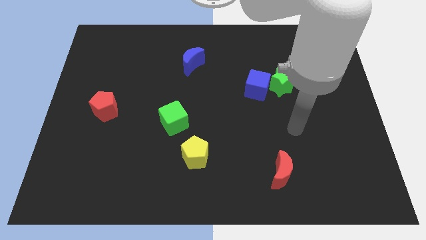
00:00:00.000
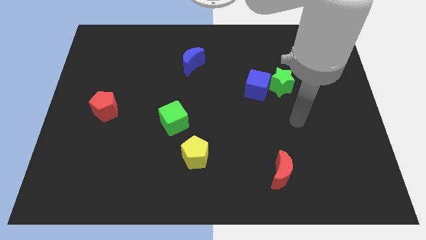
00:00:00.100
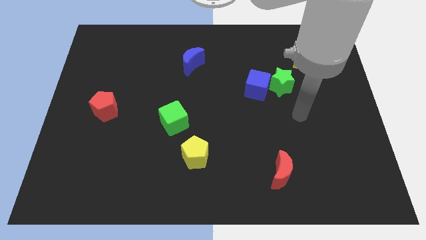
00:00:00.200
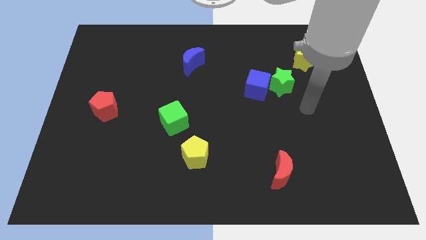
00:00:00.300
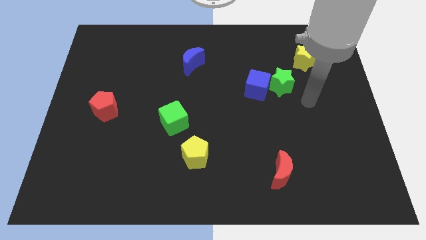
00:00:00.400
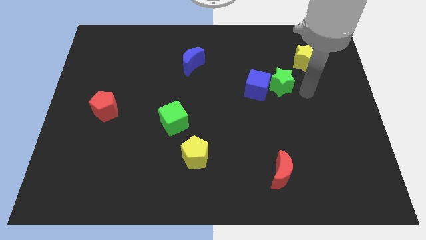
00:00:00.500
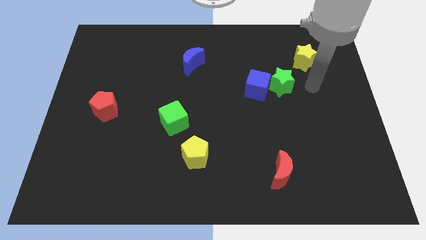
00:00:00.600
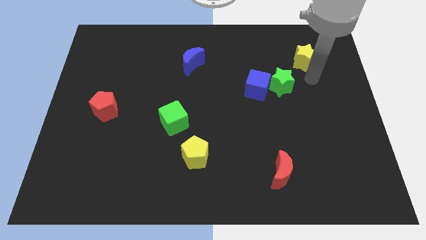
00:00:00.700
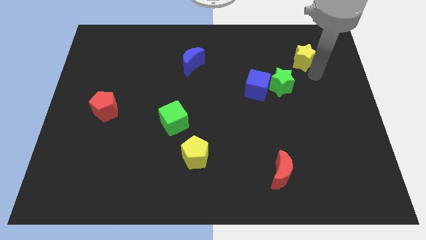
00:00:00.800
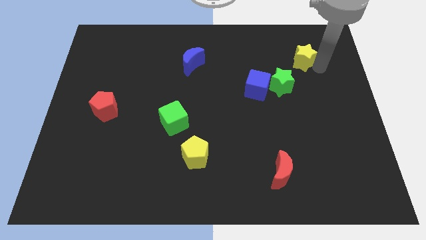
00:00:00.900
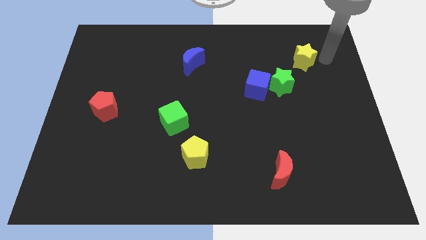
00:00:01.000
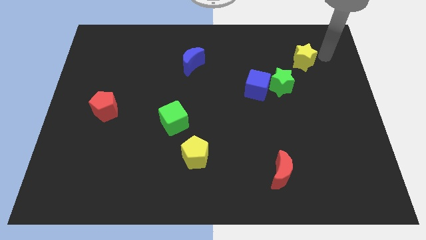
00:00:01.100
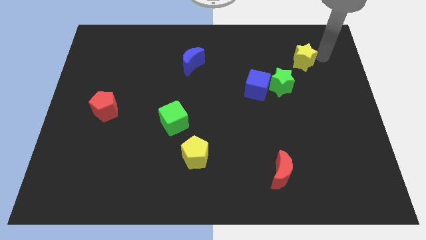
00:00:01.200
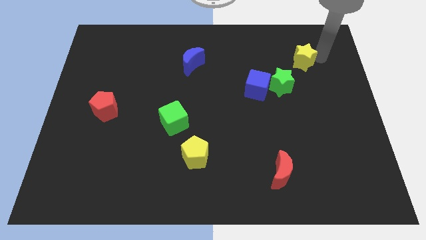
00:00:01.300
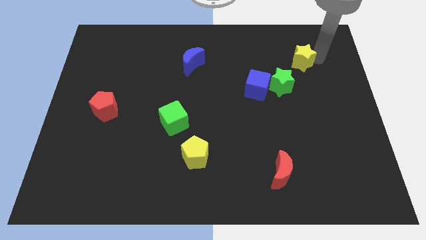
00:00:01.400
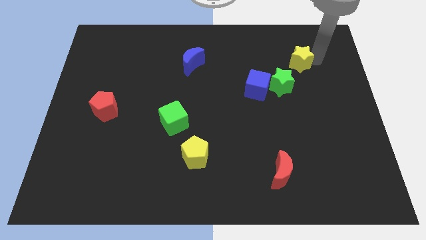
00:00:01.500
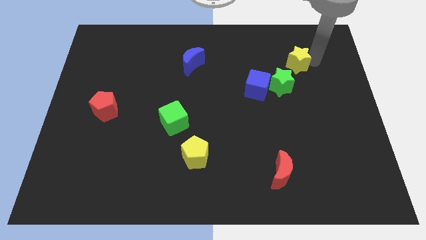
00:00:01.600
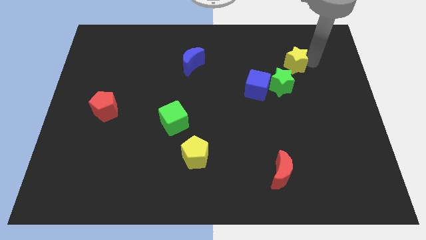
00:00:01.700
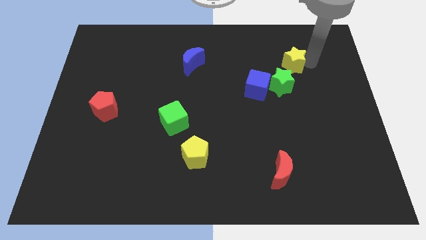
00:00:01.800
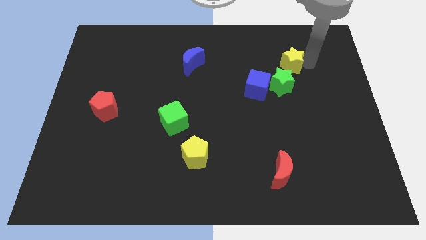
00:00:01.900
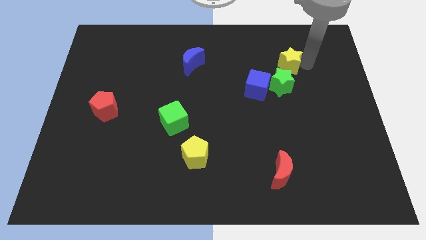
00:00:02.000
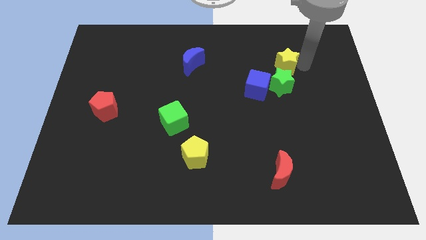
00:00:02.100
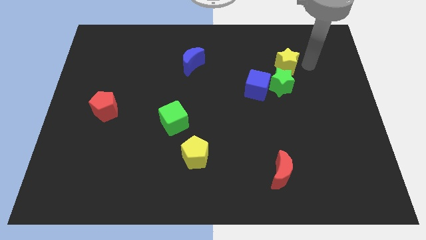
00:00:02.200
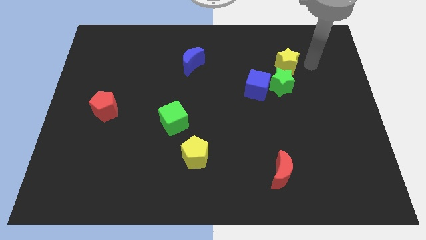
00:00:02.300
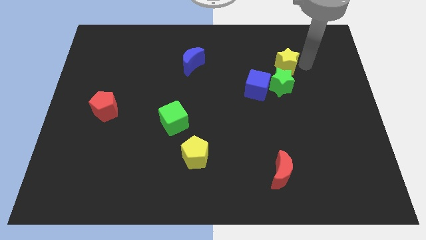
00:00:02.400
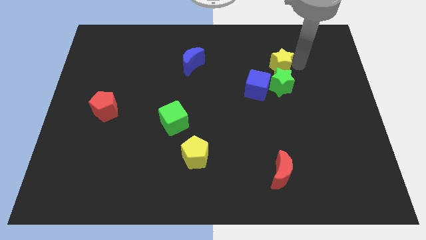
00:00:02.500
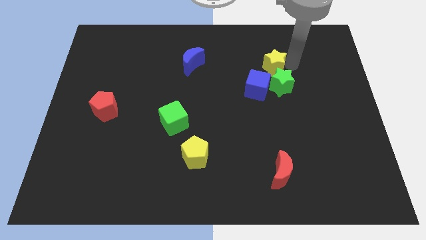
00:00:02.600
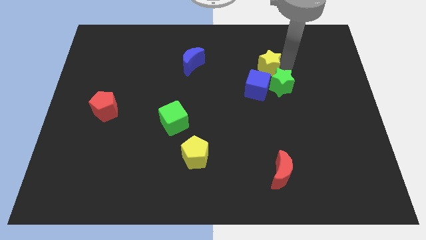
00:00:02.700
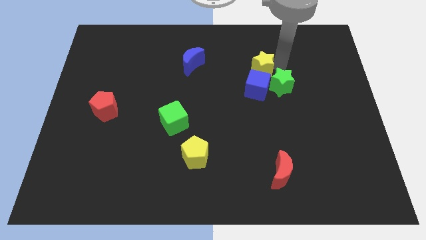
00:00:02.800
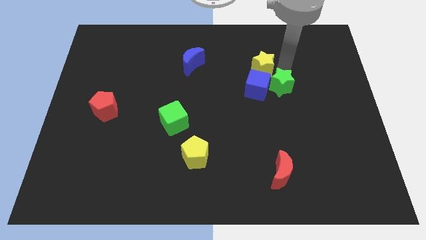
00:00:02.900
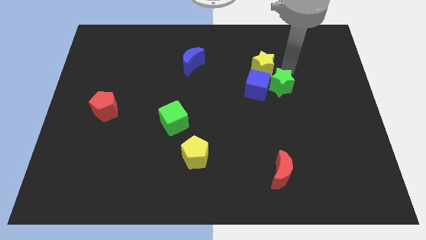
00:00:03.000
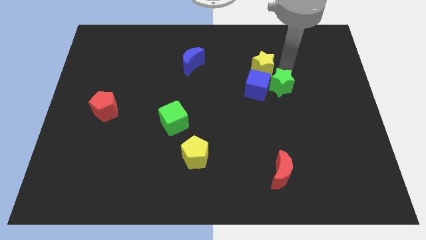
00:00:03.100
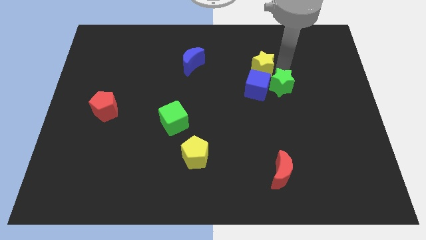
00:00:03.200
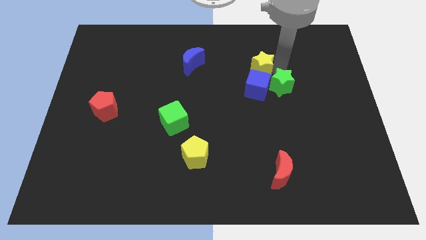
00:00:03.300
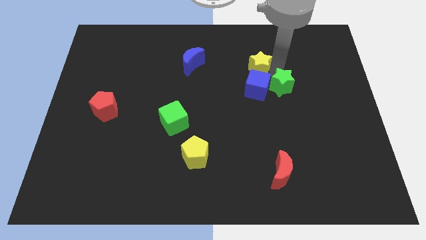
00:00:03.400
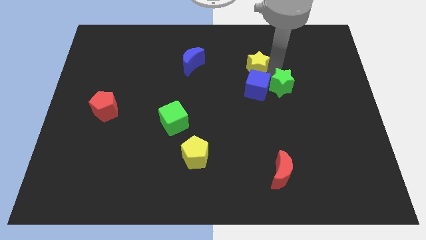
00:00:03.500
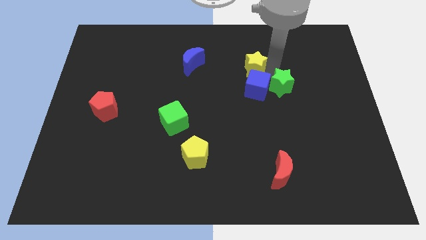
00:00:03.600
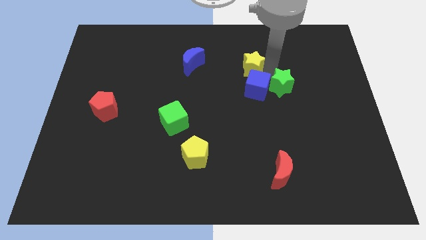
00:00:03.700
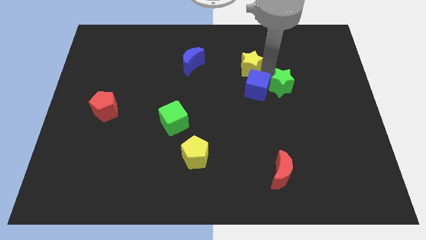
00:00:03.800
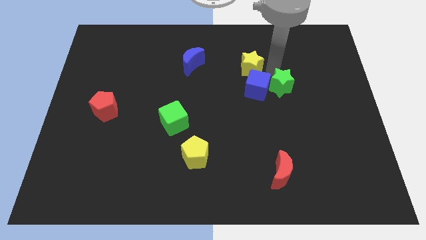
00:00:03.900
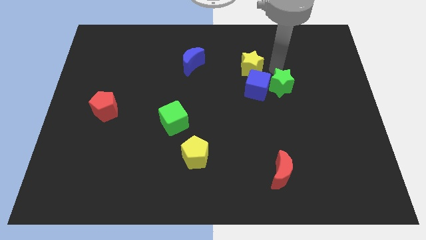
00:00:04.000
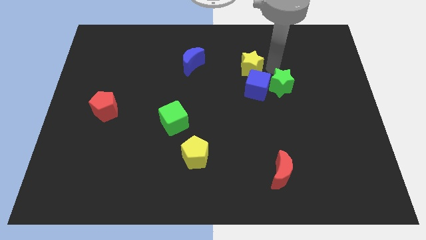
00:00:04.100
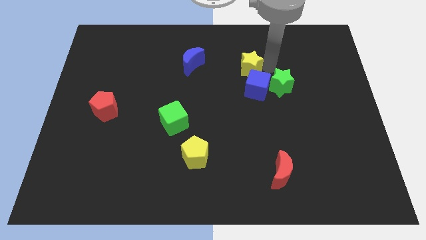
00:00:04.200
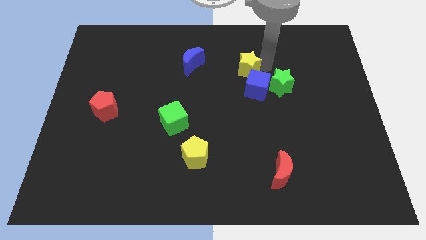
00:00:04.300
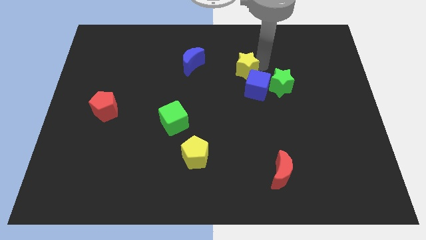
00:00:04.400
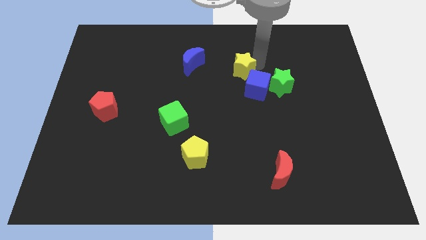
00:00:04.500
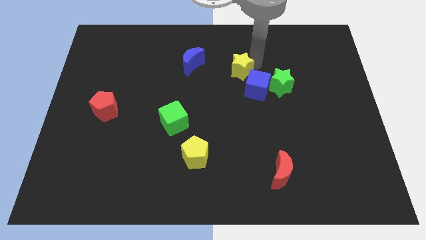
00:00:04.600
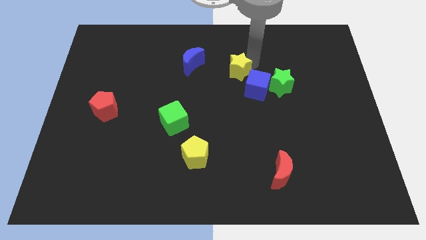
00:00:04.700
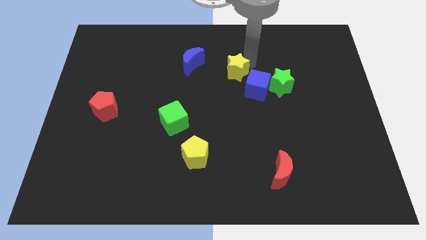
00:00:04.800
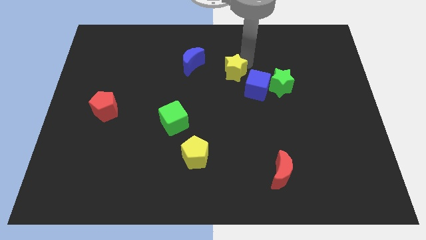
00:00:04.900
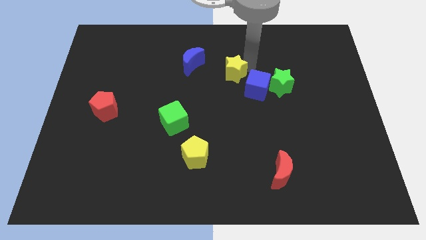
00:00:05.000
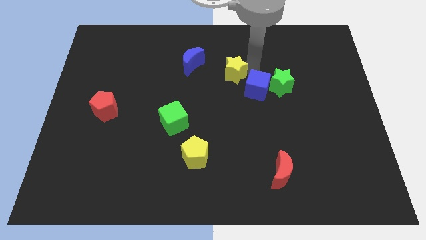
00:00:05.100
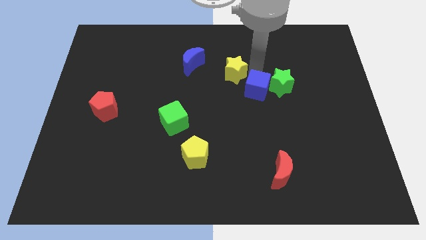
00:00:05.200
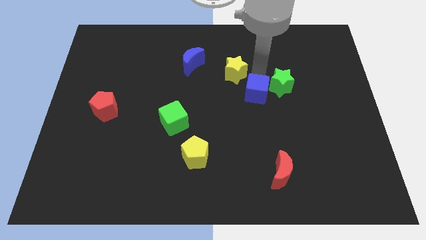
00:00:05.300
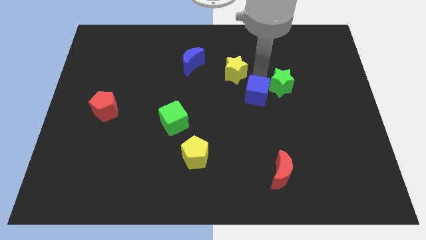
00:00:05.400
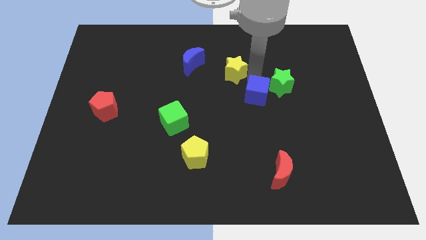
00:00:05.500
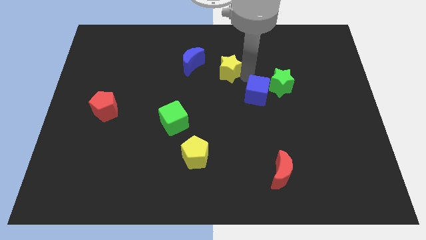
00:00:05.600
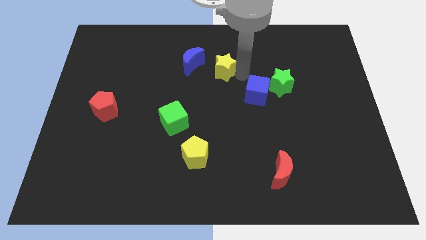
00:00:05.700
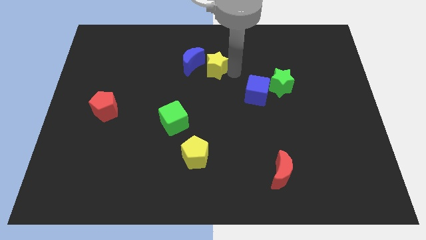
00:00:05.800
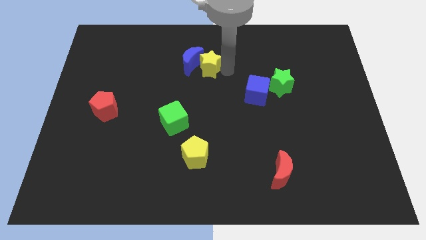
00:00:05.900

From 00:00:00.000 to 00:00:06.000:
put the yellow star next to the blue moon

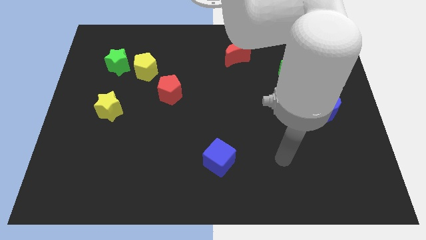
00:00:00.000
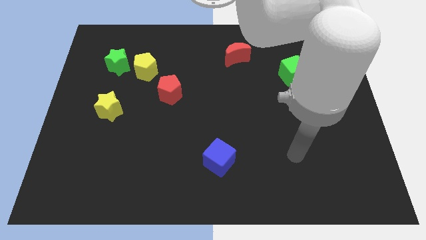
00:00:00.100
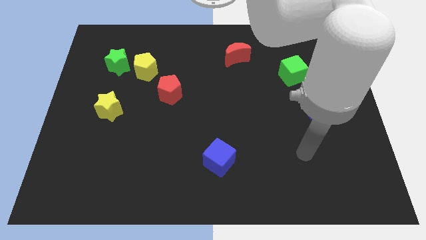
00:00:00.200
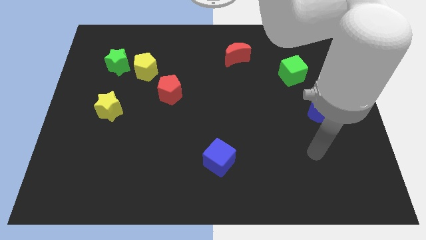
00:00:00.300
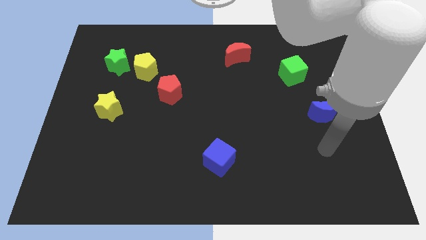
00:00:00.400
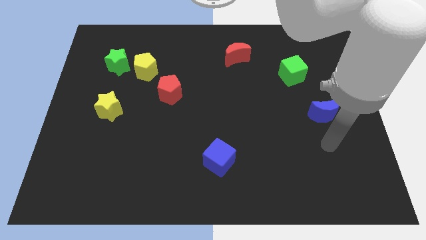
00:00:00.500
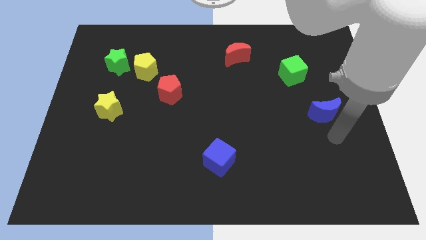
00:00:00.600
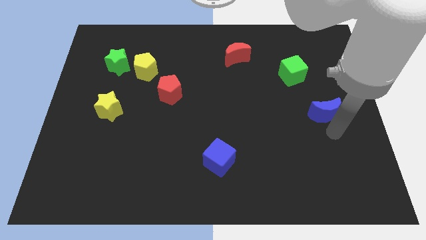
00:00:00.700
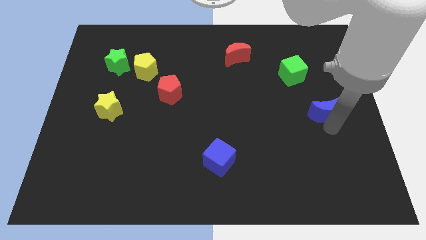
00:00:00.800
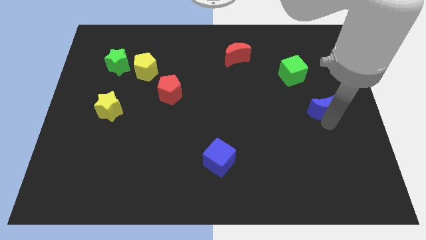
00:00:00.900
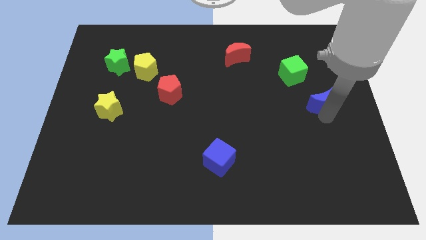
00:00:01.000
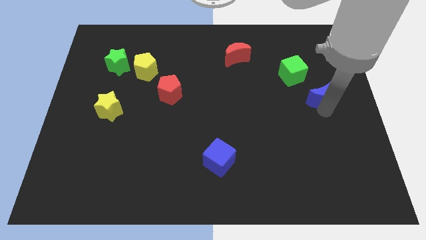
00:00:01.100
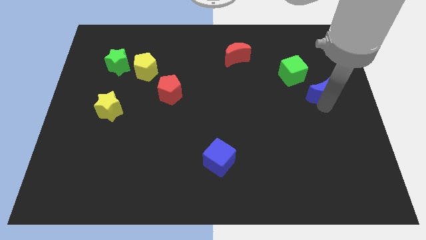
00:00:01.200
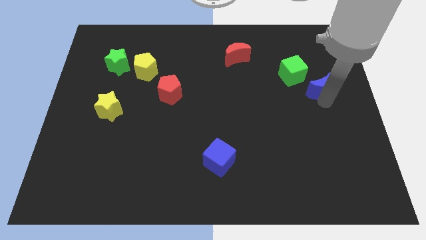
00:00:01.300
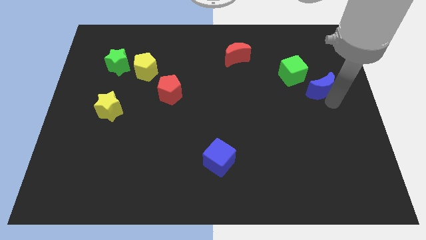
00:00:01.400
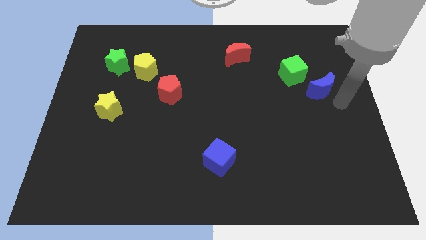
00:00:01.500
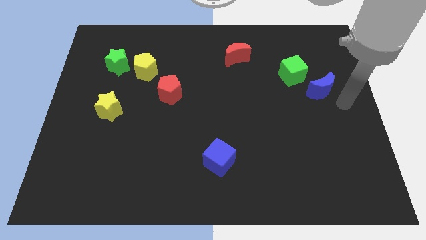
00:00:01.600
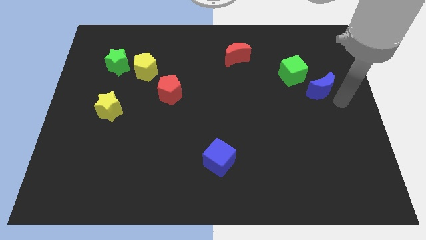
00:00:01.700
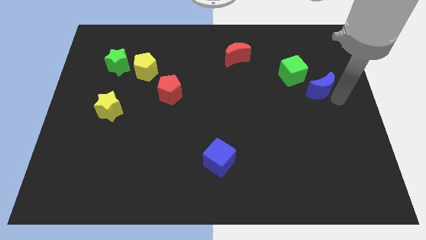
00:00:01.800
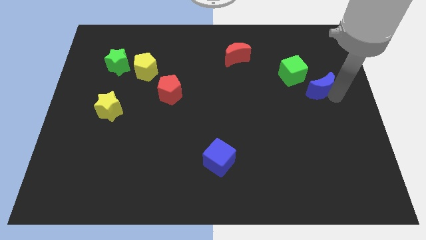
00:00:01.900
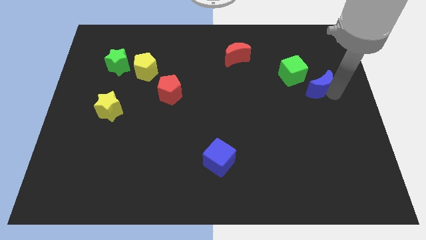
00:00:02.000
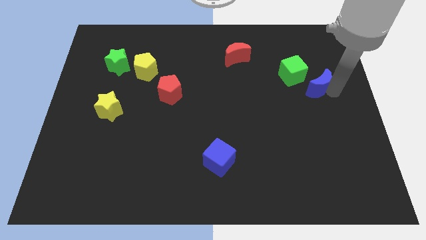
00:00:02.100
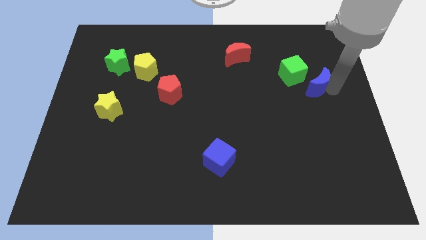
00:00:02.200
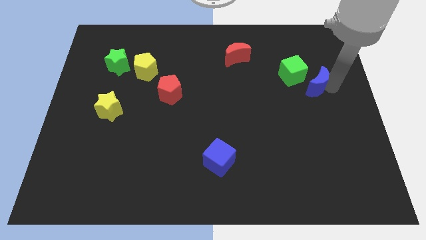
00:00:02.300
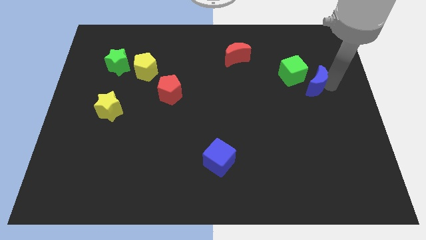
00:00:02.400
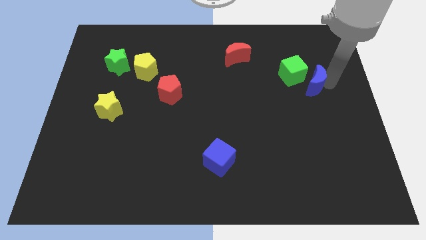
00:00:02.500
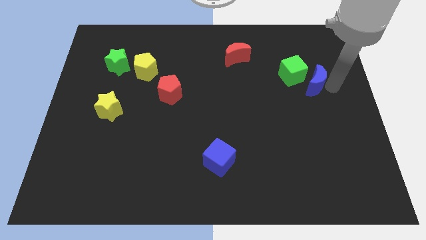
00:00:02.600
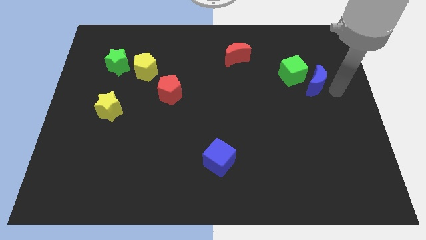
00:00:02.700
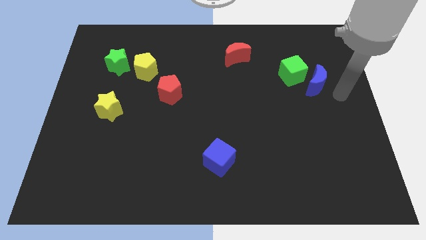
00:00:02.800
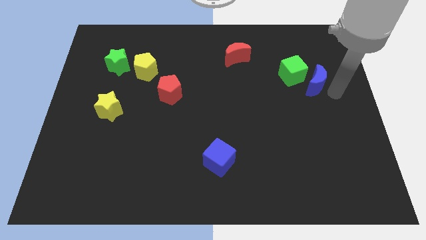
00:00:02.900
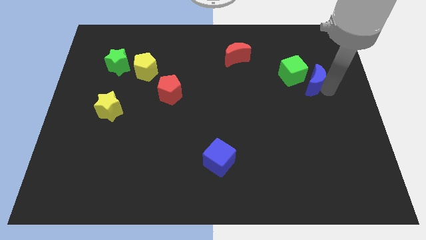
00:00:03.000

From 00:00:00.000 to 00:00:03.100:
push the blue moon next to the green cube
